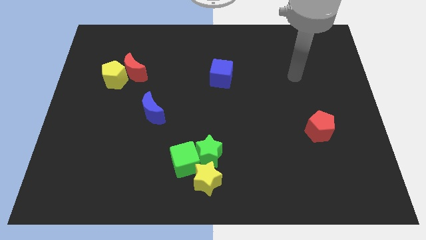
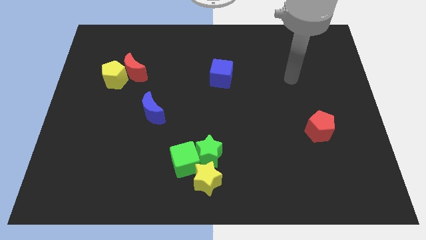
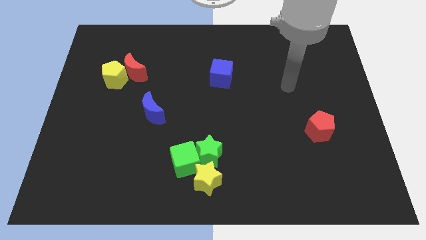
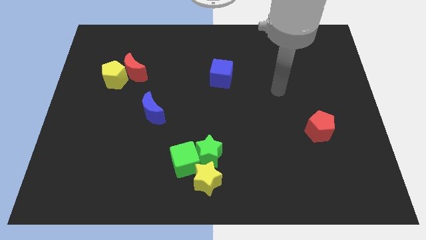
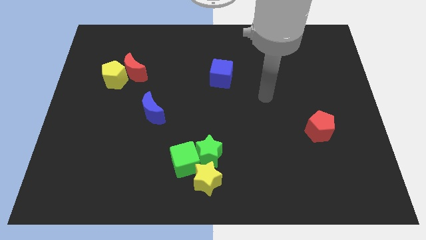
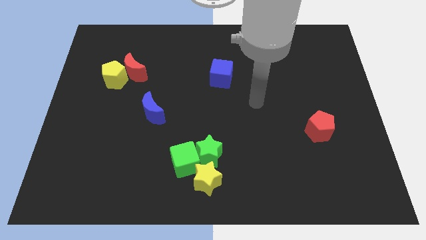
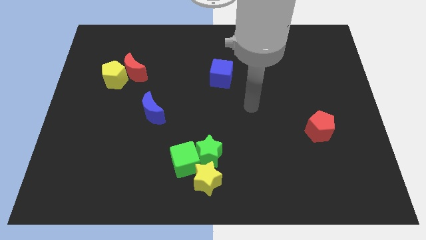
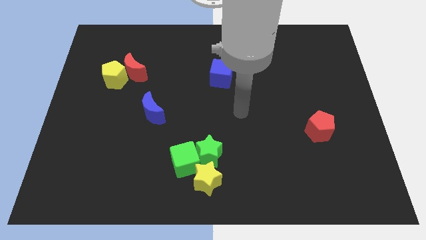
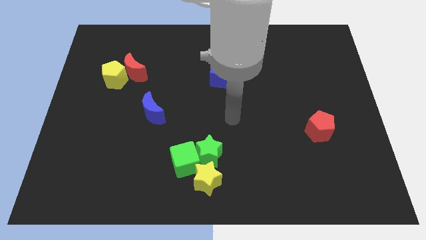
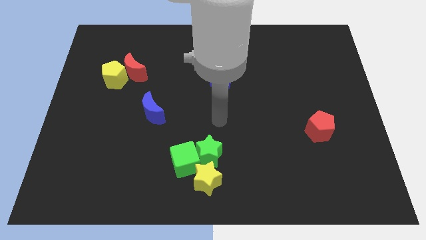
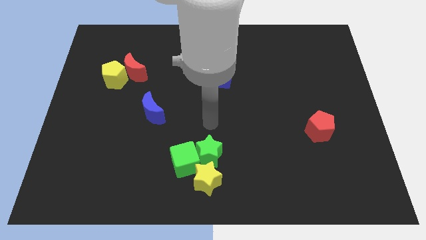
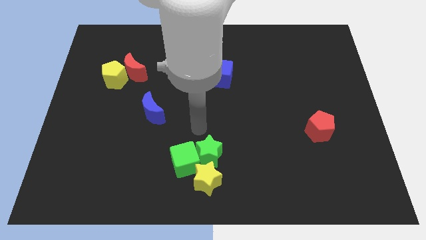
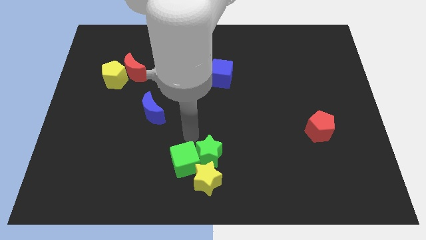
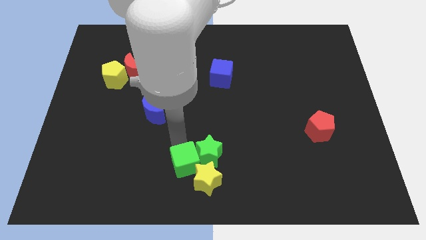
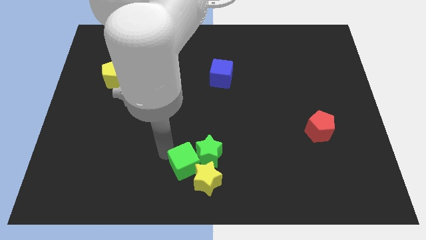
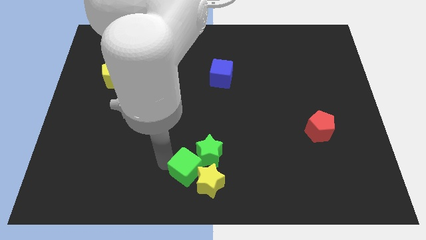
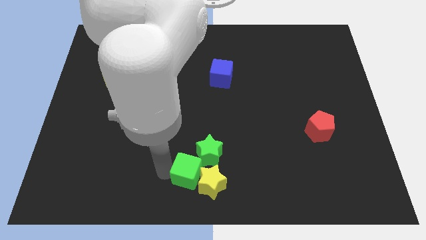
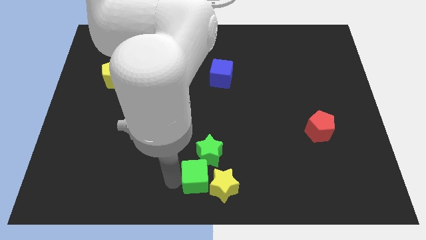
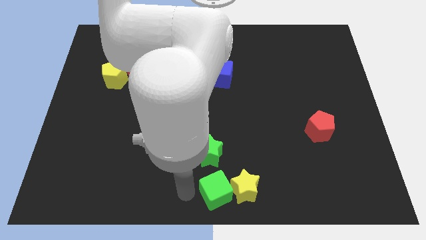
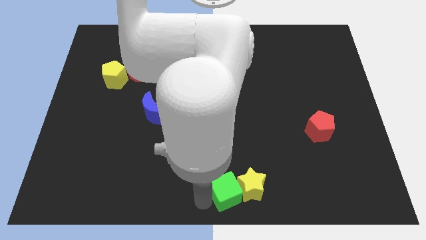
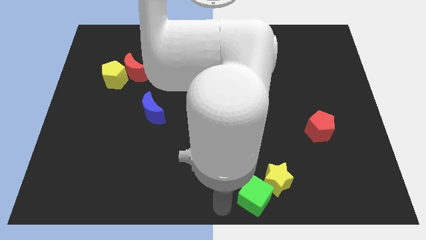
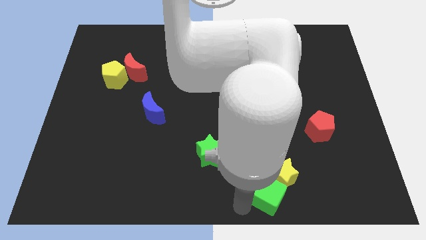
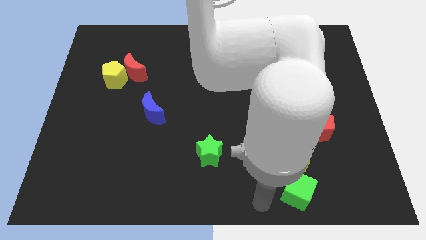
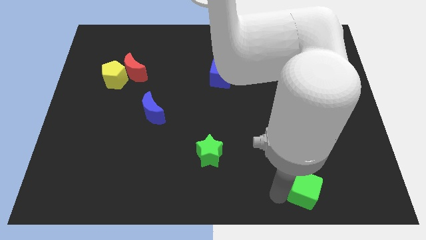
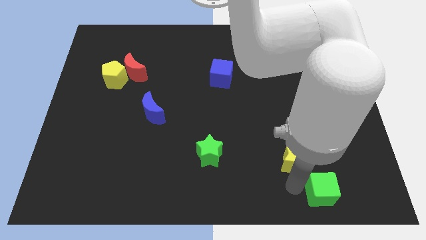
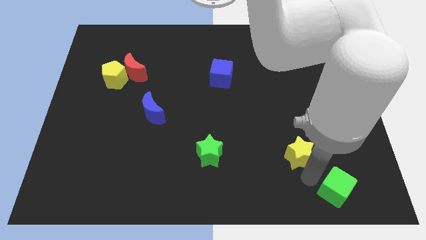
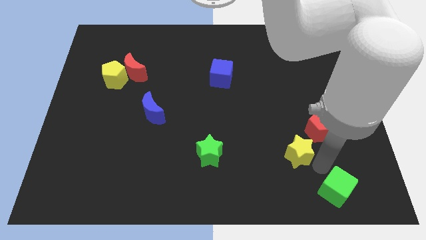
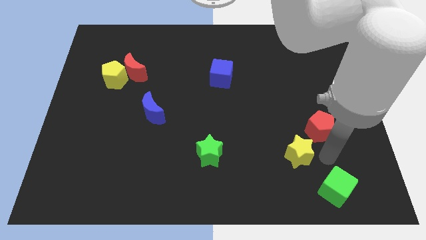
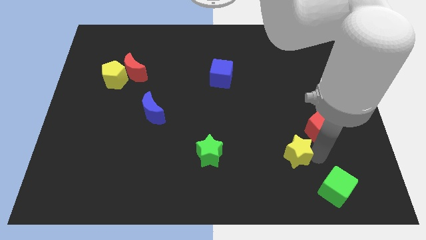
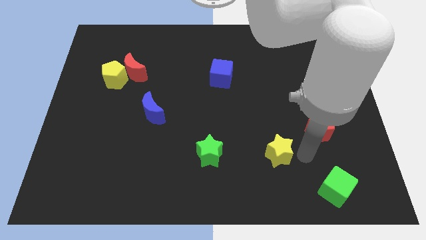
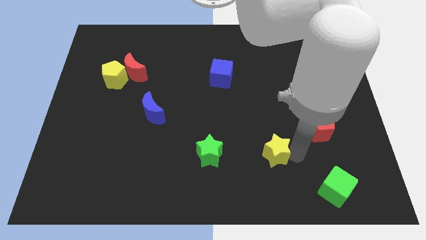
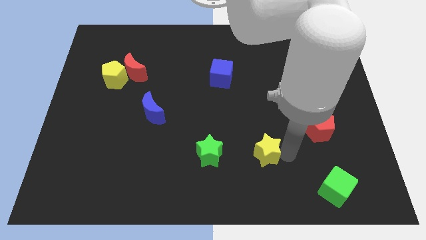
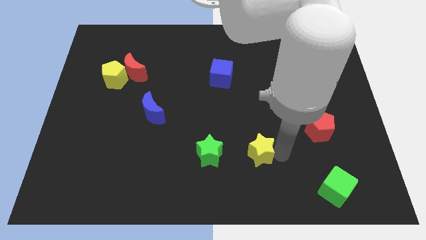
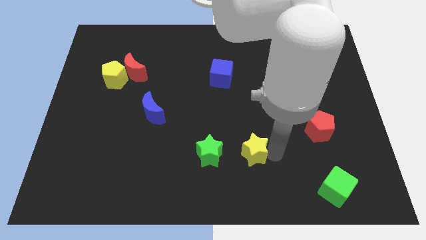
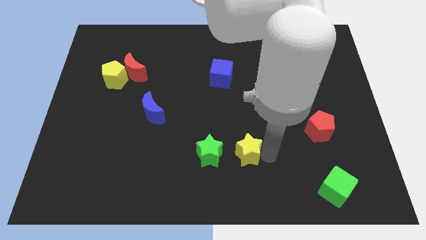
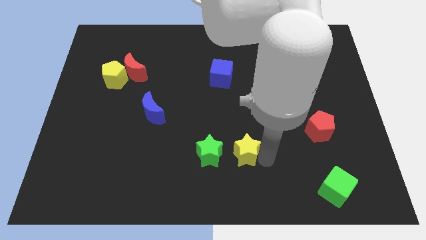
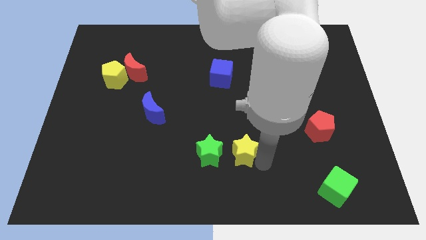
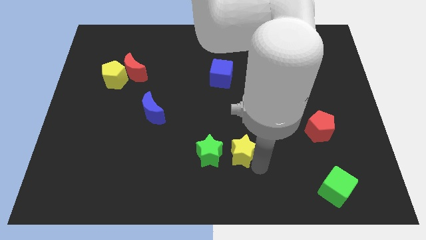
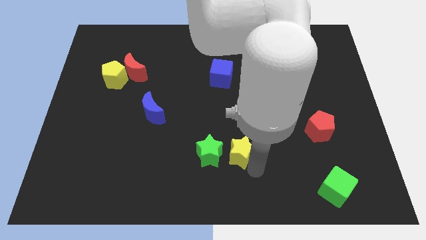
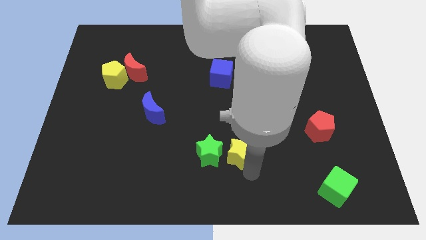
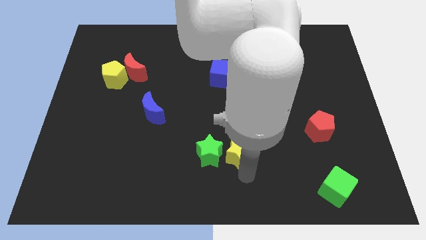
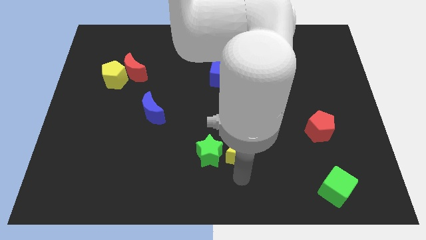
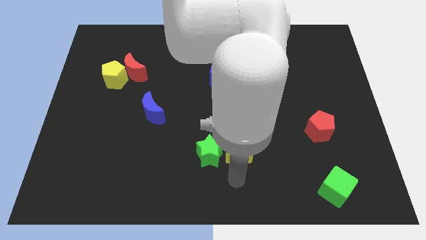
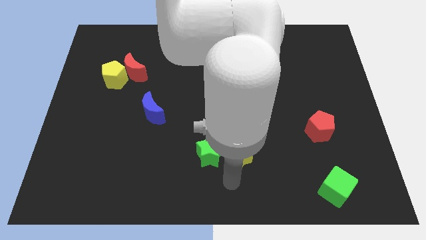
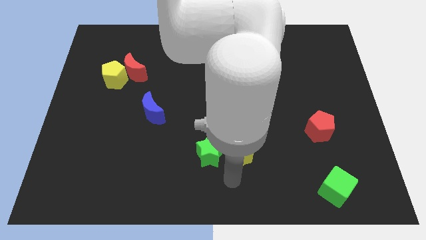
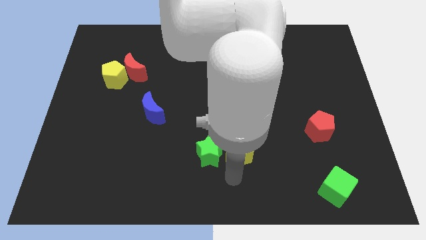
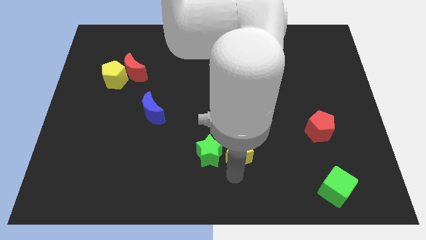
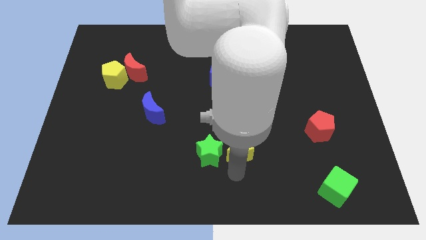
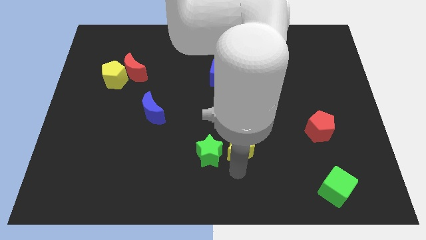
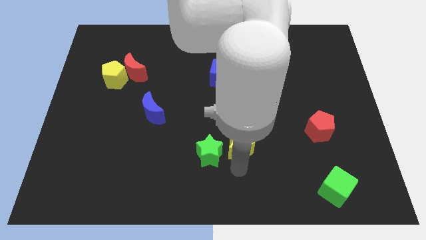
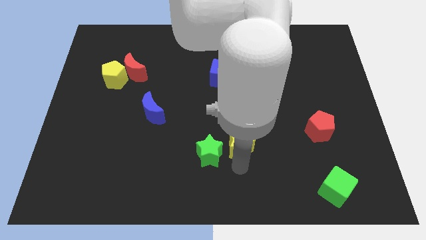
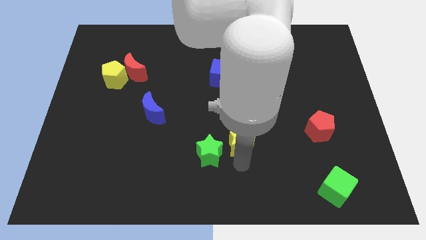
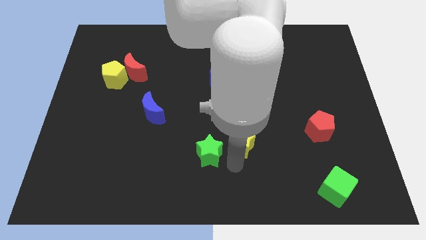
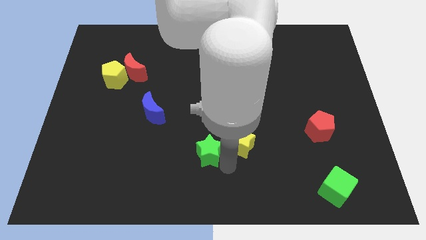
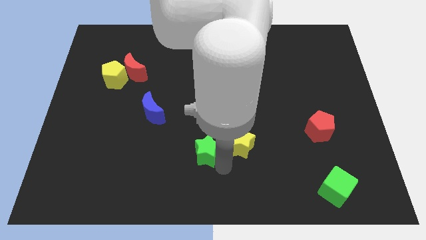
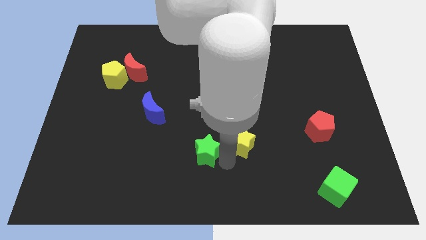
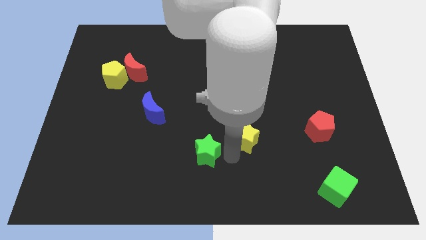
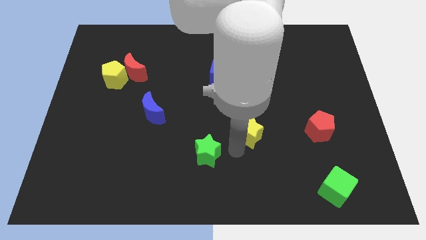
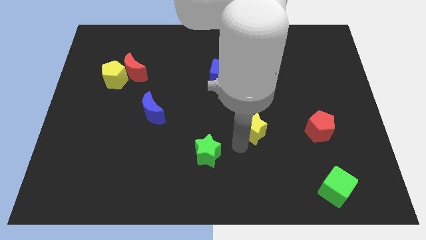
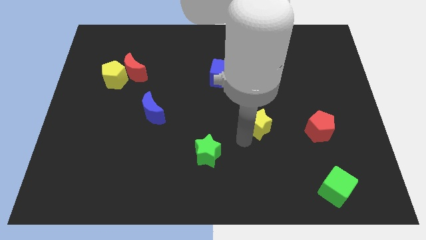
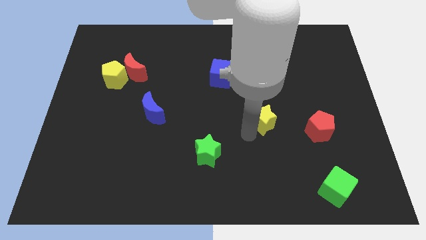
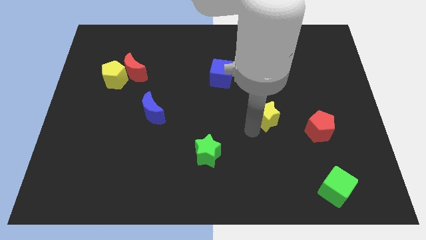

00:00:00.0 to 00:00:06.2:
move the yellow star up and to the right

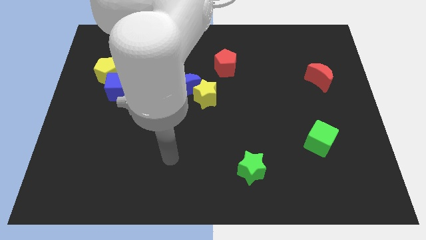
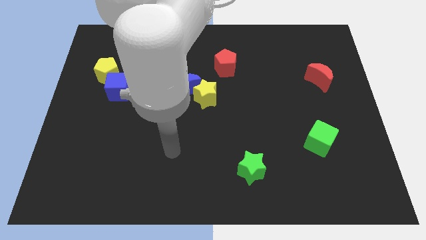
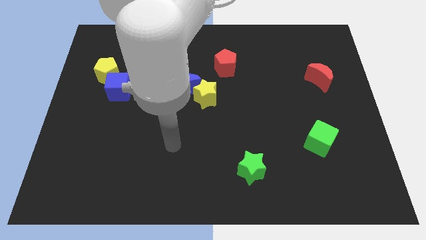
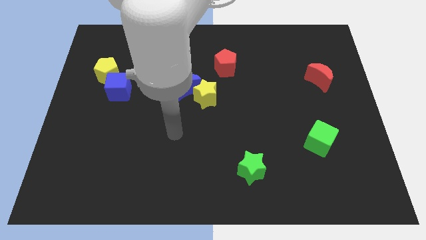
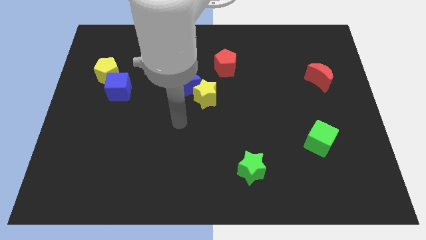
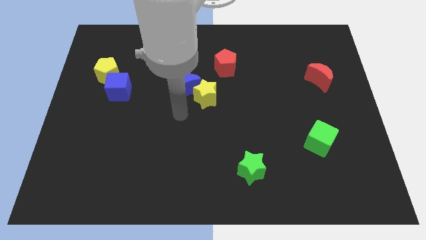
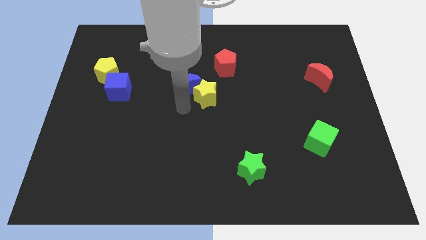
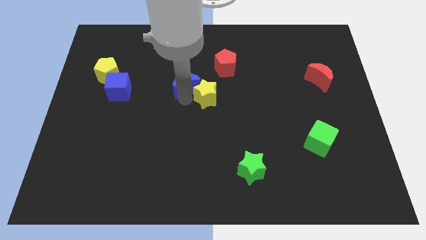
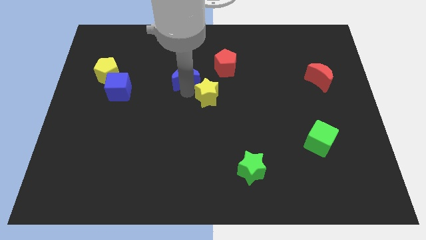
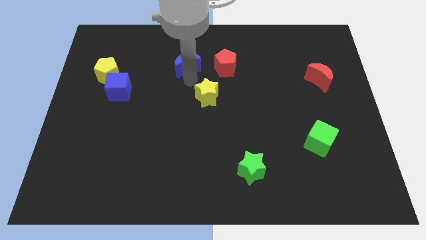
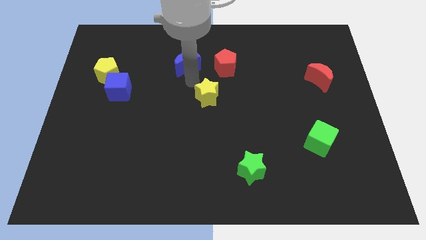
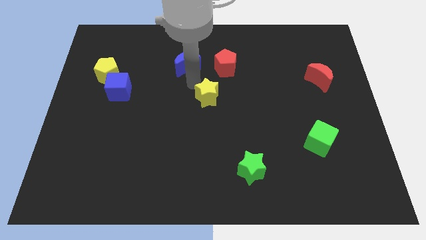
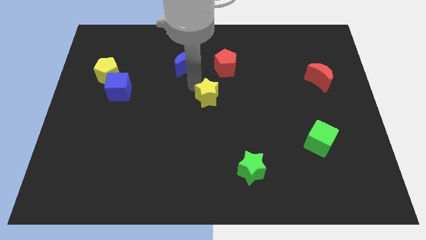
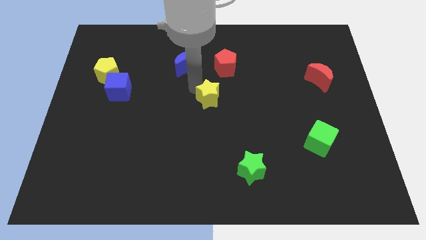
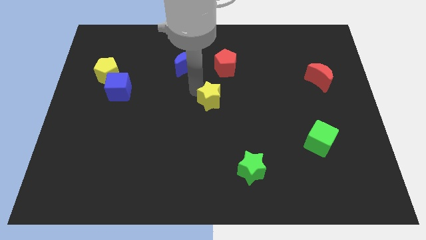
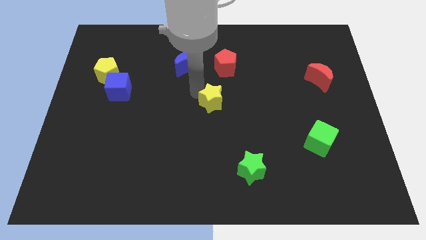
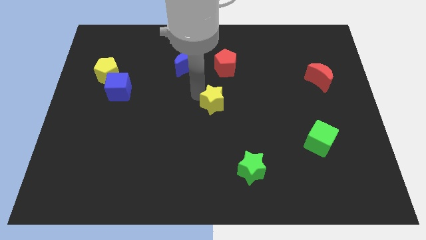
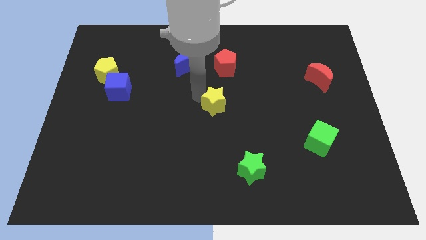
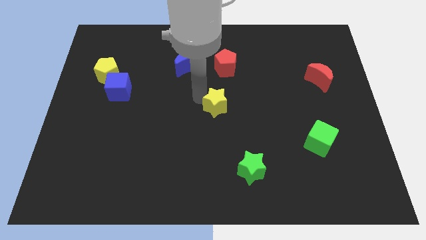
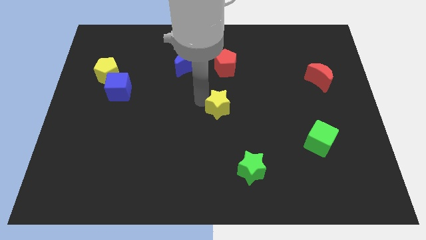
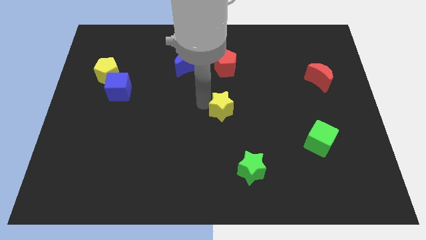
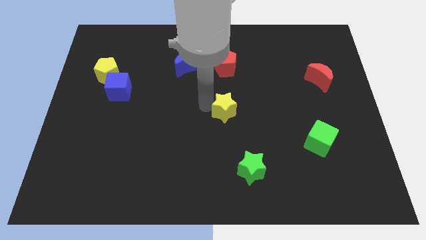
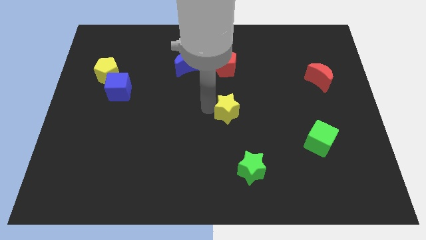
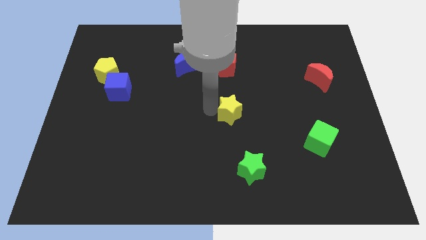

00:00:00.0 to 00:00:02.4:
slightly slide the yellow star diagonally down and right
